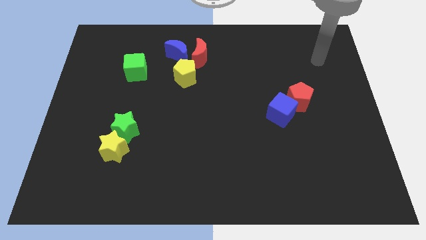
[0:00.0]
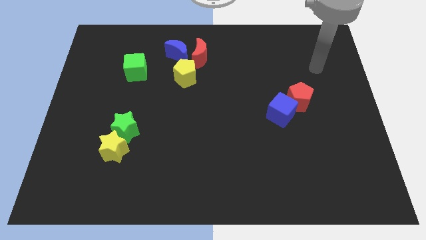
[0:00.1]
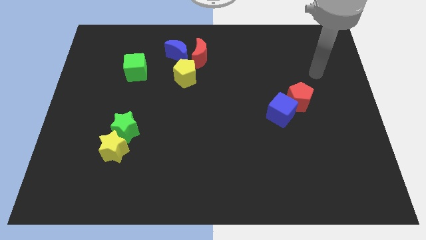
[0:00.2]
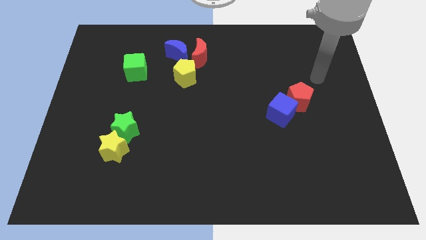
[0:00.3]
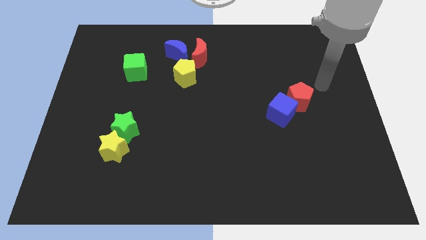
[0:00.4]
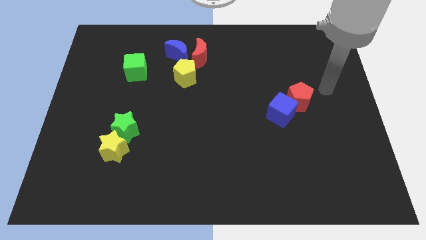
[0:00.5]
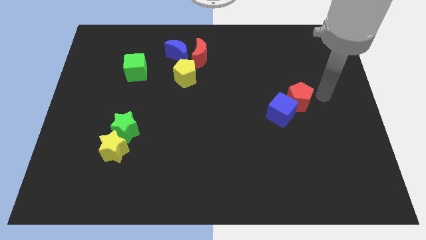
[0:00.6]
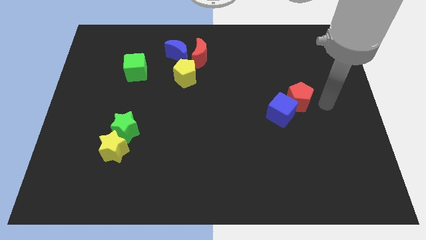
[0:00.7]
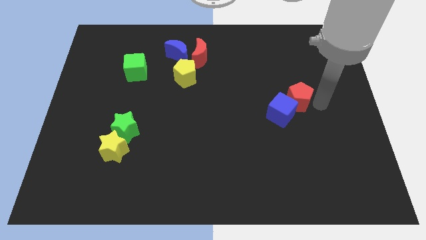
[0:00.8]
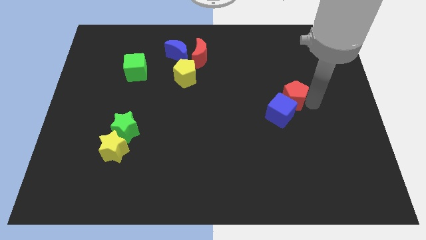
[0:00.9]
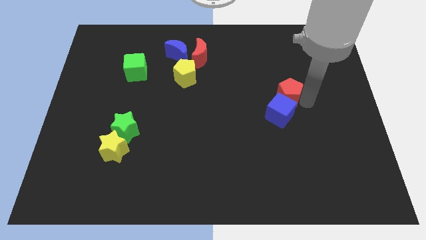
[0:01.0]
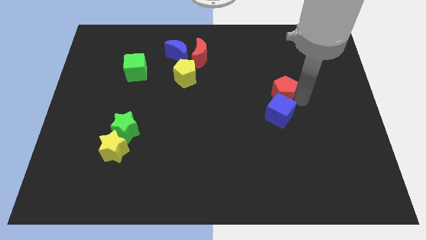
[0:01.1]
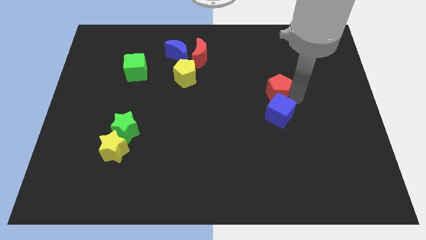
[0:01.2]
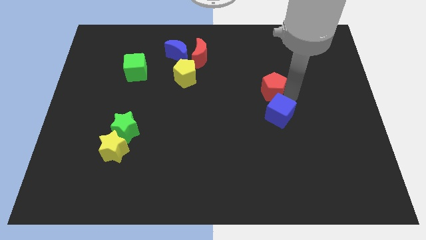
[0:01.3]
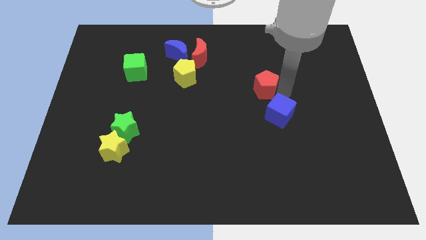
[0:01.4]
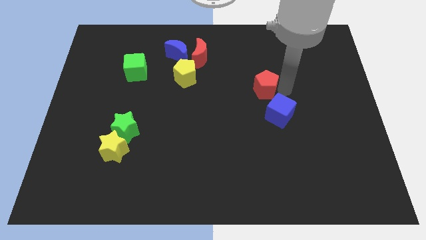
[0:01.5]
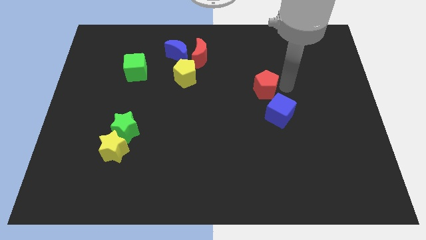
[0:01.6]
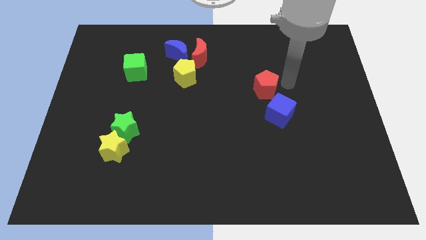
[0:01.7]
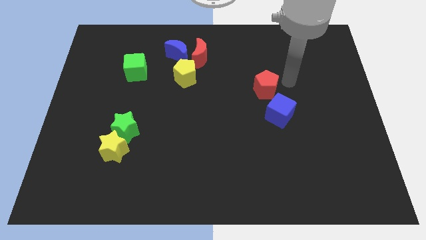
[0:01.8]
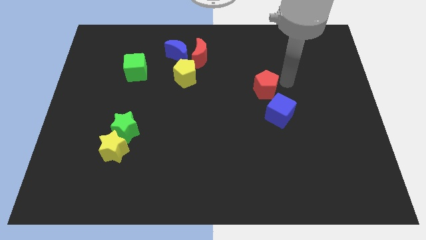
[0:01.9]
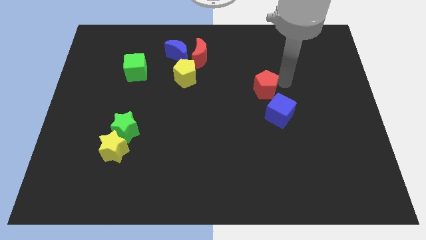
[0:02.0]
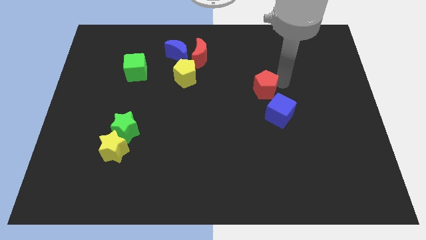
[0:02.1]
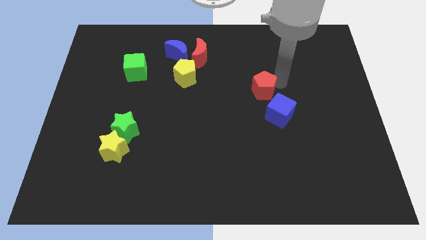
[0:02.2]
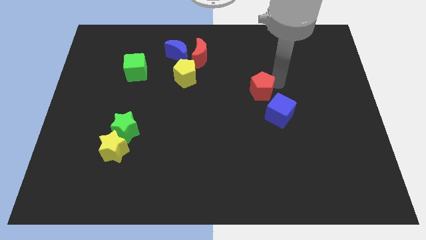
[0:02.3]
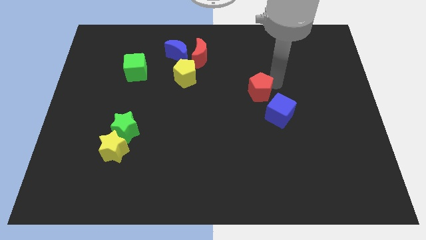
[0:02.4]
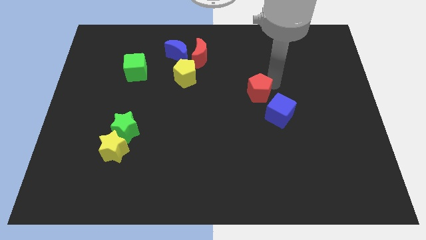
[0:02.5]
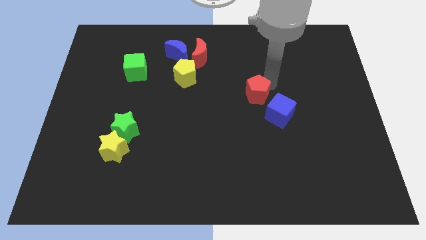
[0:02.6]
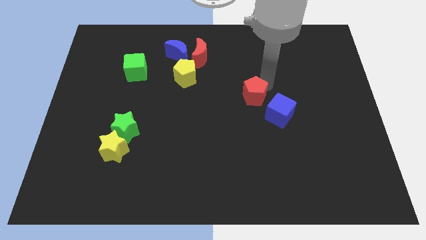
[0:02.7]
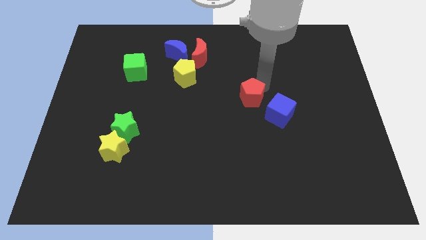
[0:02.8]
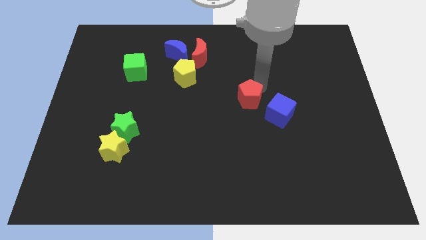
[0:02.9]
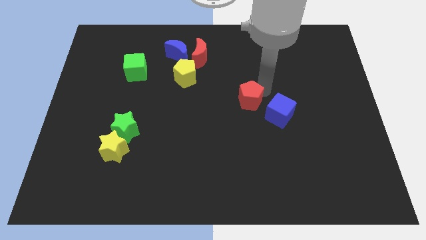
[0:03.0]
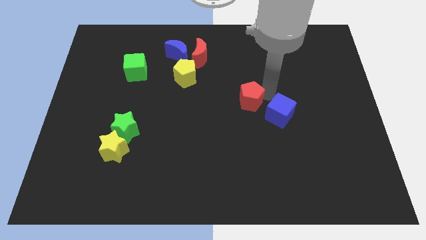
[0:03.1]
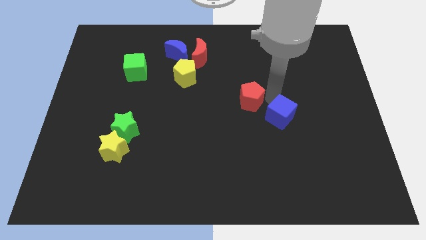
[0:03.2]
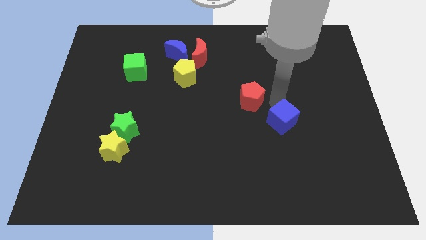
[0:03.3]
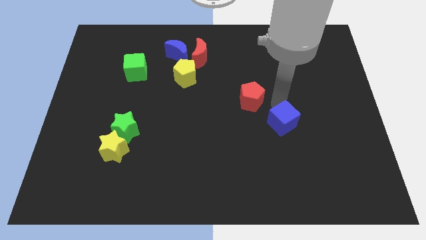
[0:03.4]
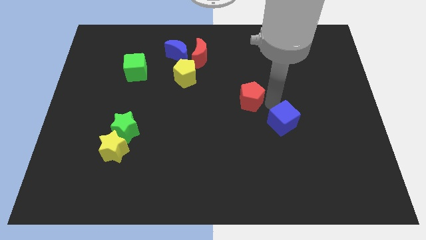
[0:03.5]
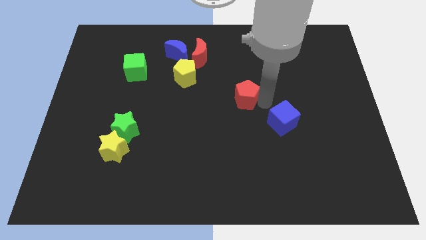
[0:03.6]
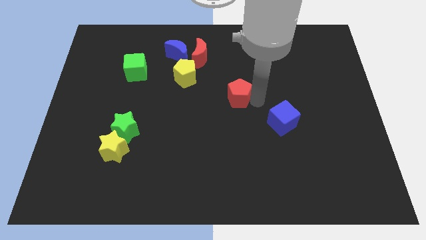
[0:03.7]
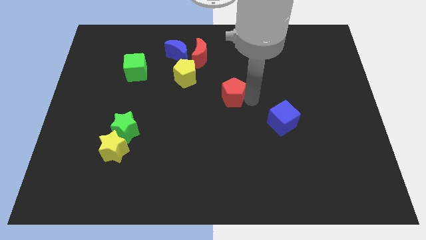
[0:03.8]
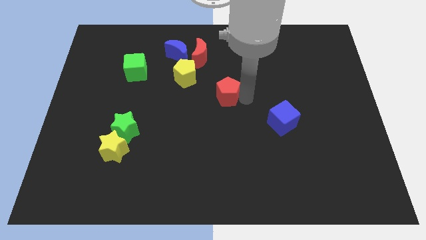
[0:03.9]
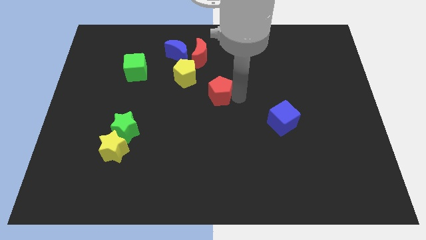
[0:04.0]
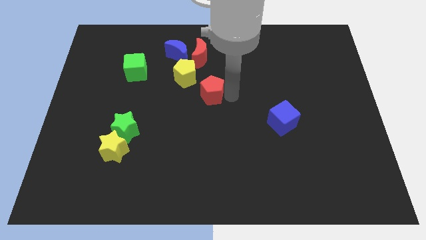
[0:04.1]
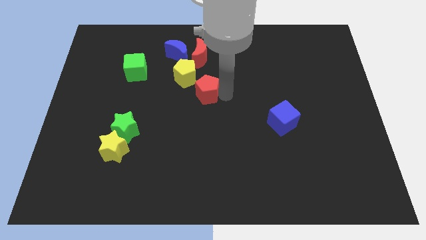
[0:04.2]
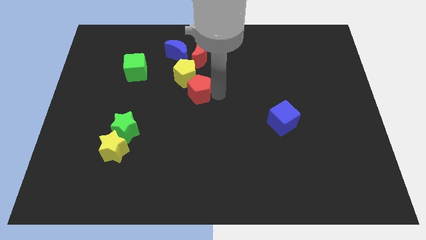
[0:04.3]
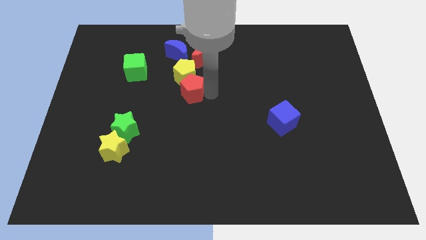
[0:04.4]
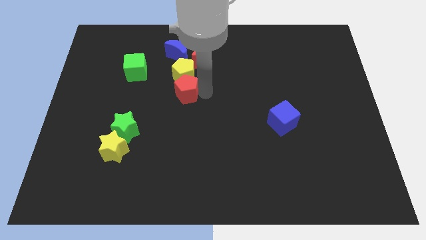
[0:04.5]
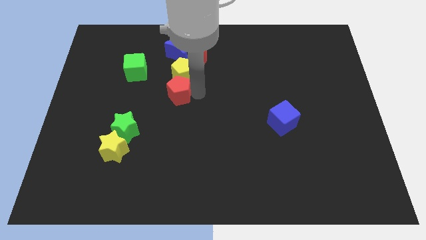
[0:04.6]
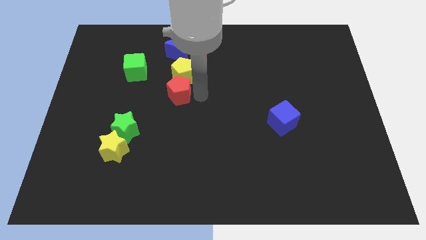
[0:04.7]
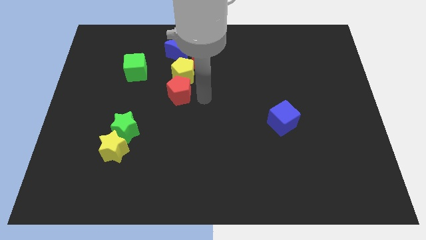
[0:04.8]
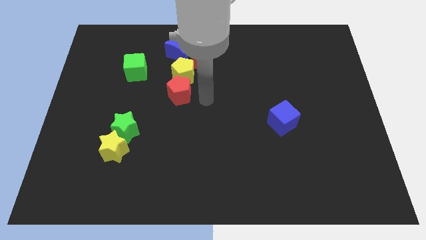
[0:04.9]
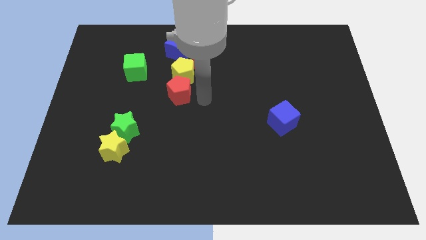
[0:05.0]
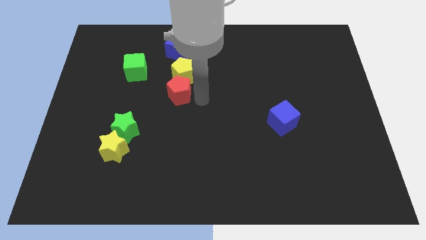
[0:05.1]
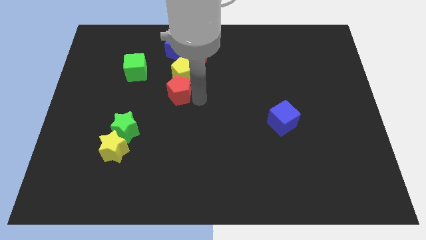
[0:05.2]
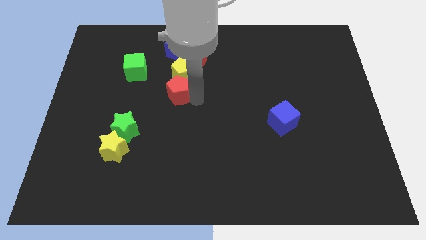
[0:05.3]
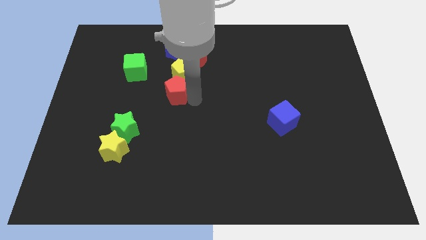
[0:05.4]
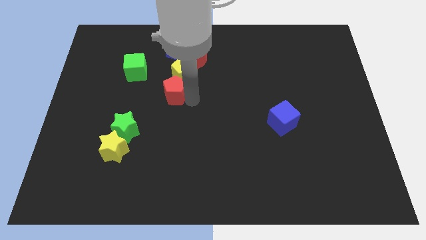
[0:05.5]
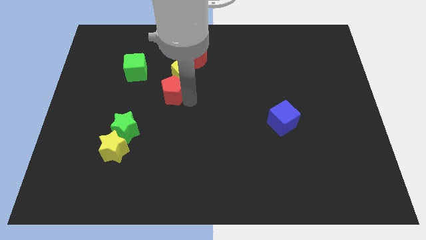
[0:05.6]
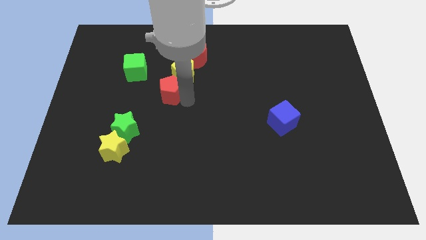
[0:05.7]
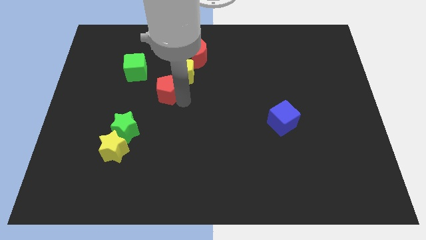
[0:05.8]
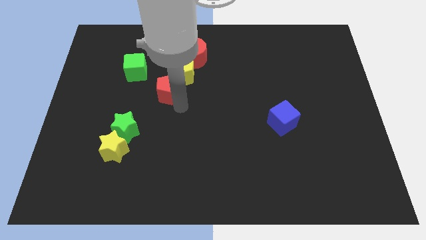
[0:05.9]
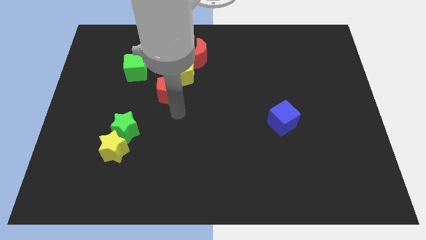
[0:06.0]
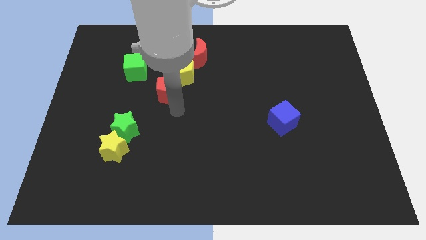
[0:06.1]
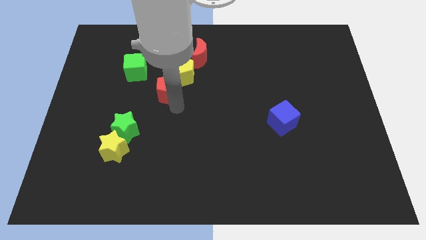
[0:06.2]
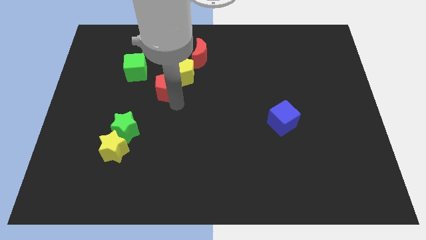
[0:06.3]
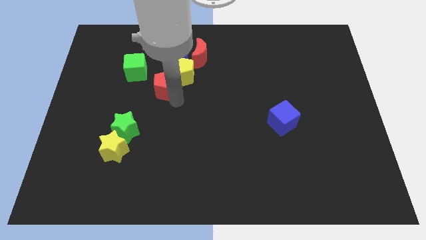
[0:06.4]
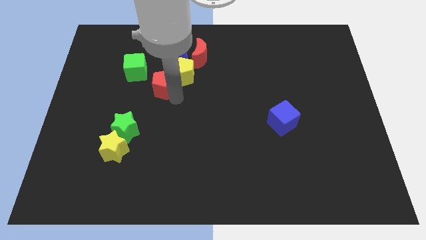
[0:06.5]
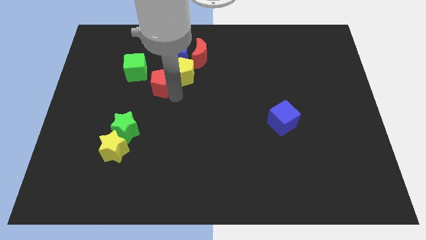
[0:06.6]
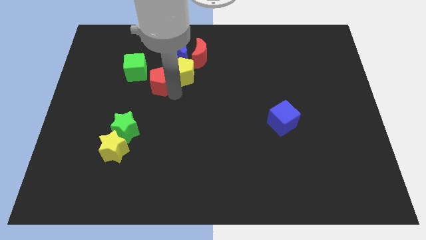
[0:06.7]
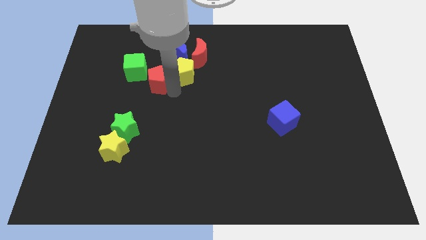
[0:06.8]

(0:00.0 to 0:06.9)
move the red pentagon to the bottom left of the blue moon

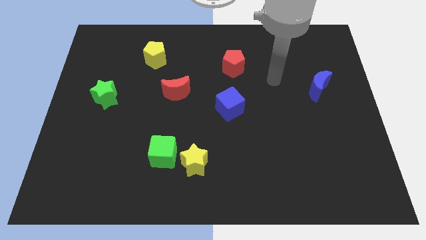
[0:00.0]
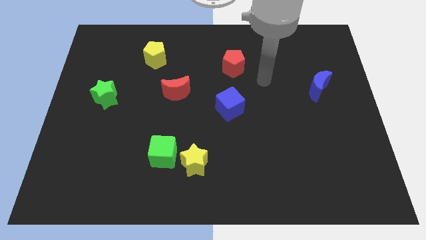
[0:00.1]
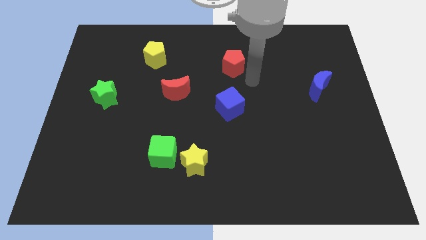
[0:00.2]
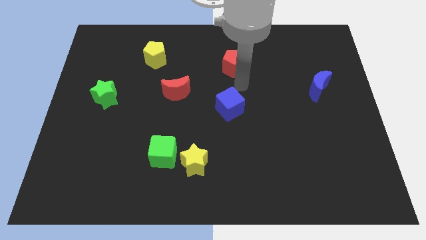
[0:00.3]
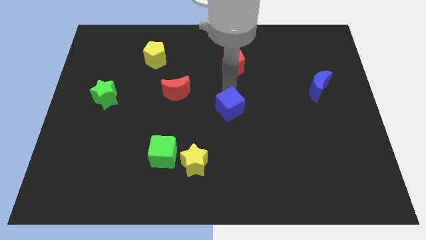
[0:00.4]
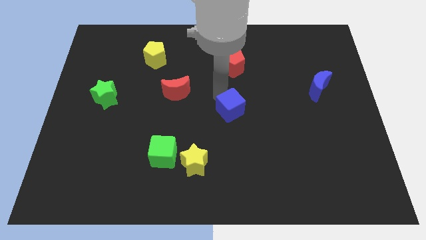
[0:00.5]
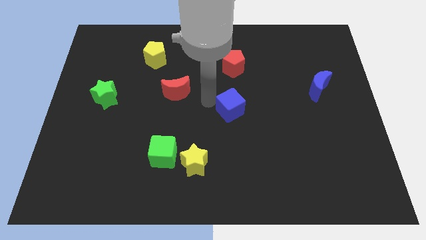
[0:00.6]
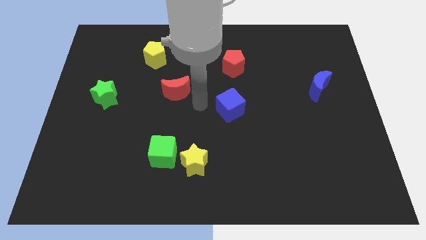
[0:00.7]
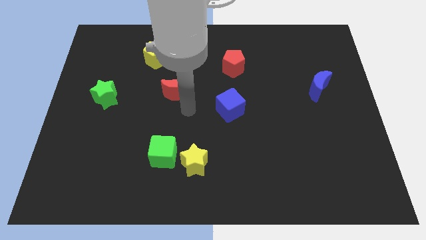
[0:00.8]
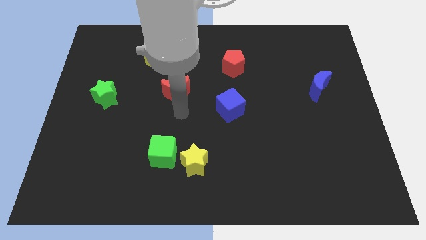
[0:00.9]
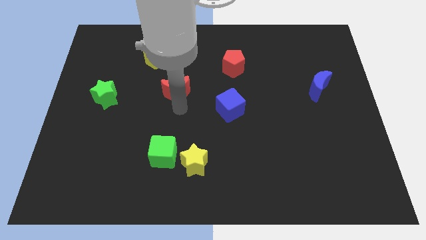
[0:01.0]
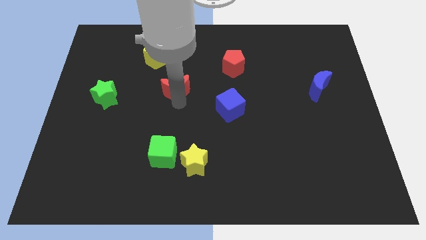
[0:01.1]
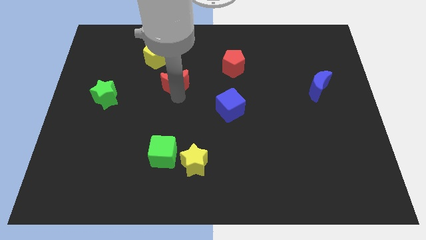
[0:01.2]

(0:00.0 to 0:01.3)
slide the red moon to the bottom right of the yellow pentagon

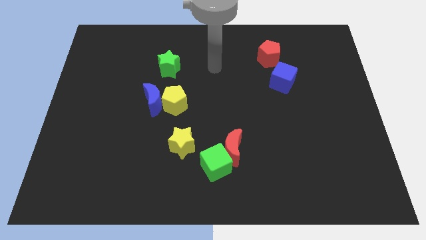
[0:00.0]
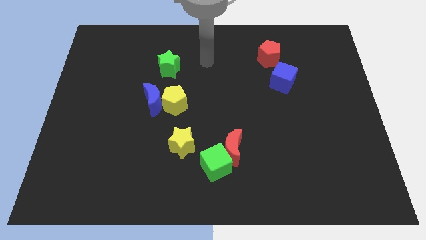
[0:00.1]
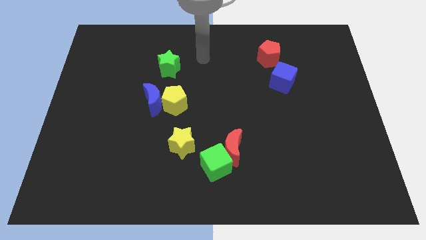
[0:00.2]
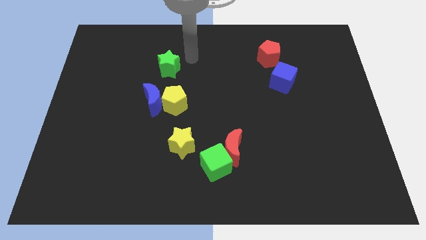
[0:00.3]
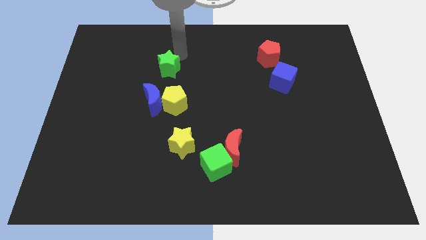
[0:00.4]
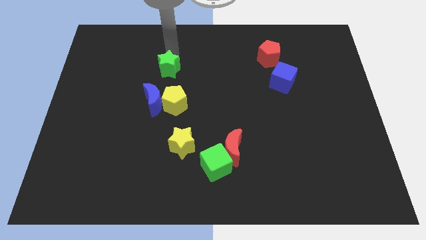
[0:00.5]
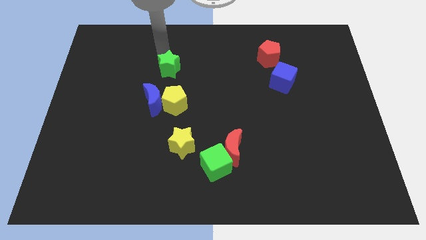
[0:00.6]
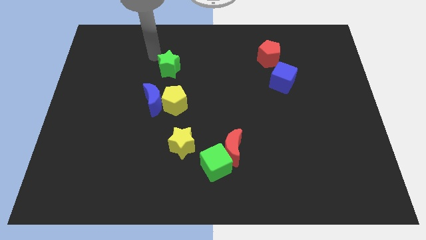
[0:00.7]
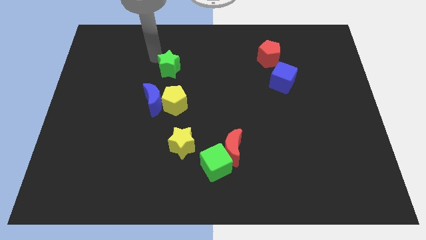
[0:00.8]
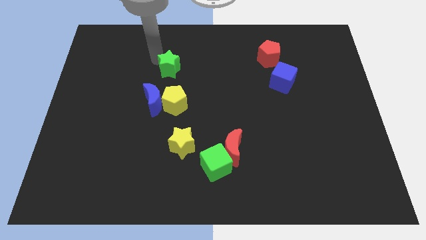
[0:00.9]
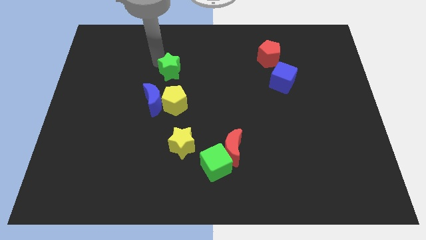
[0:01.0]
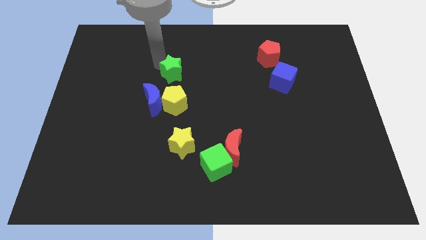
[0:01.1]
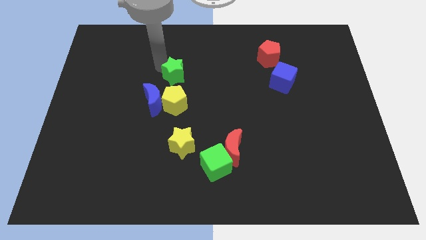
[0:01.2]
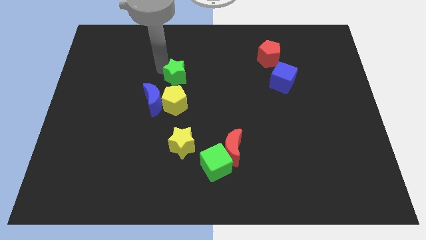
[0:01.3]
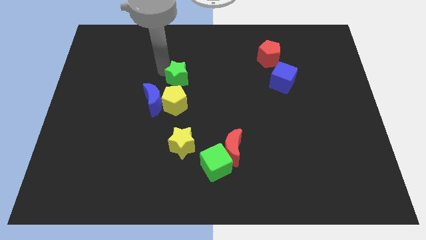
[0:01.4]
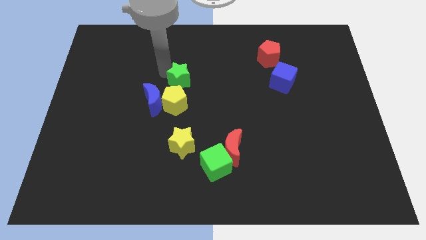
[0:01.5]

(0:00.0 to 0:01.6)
put the green star diagonally up and to the right of the yellow pentagon
